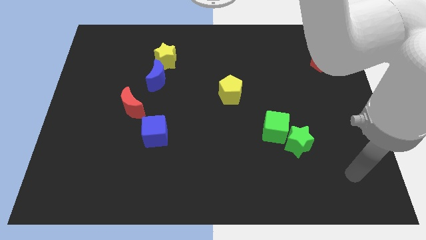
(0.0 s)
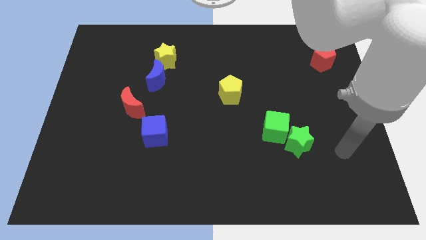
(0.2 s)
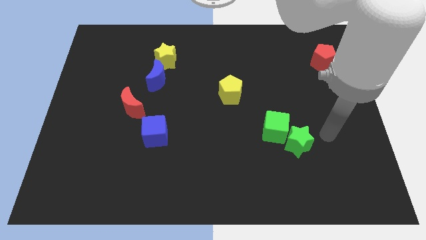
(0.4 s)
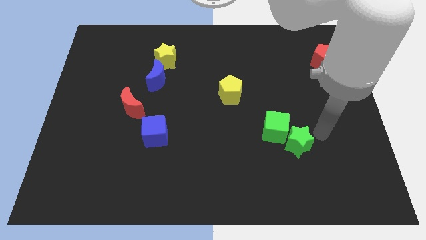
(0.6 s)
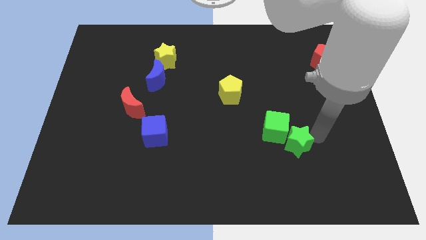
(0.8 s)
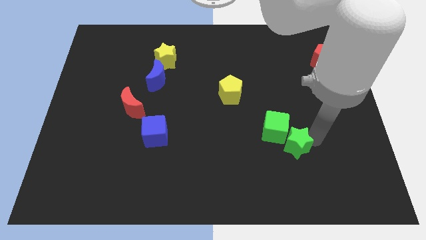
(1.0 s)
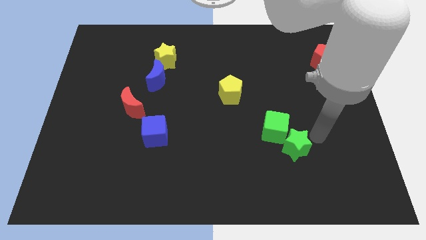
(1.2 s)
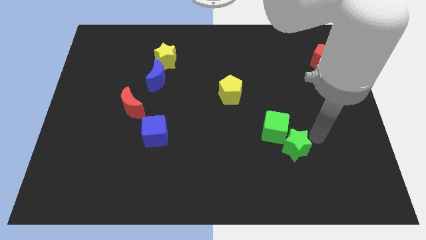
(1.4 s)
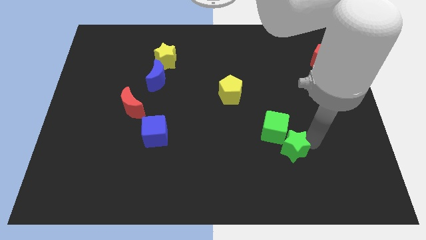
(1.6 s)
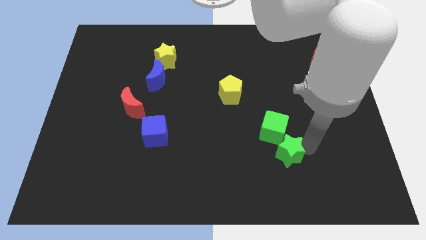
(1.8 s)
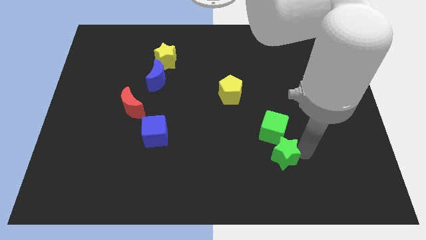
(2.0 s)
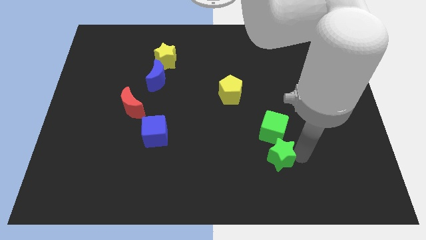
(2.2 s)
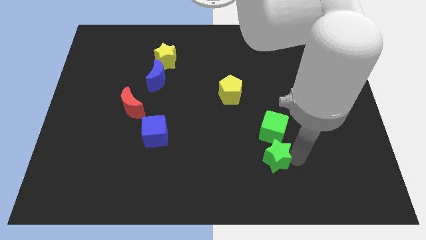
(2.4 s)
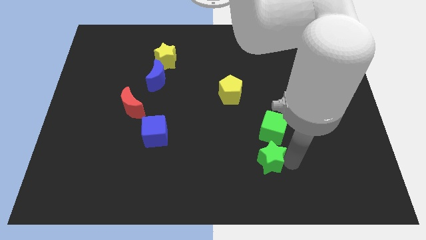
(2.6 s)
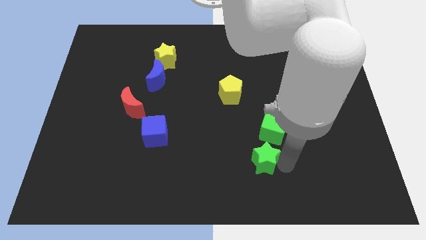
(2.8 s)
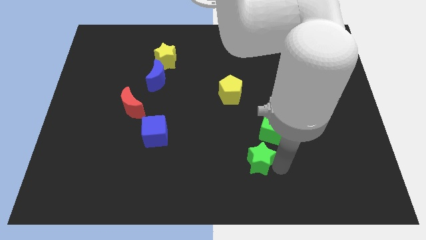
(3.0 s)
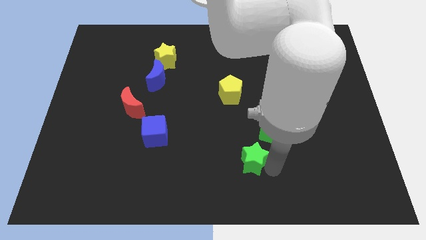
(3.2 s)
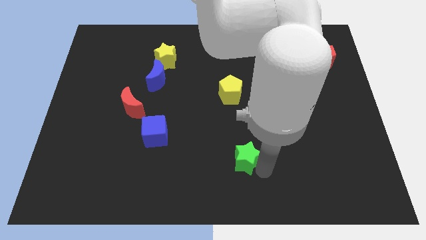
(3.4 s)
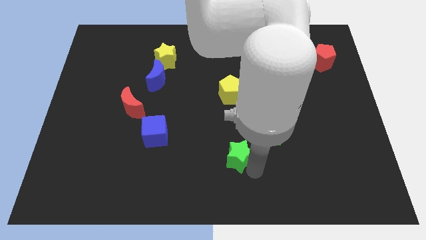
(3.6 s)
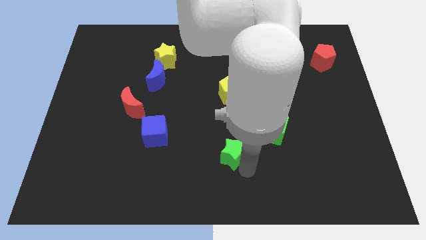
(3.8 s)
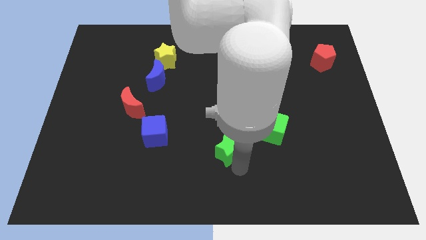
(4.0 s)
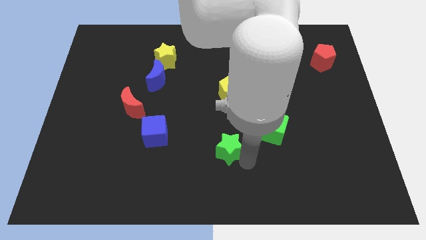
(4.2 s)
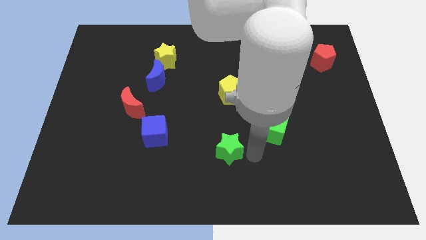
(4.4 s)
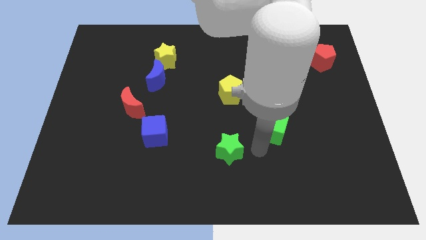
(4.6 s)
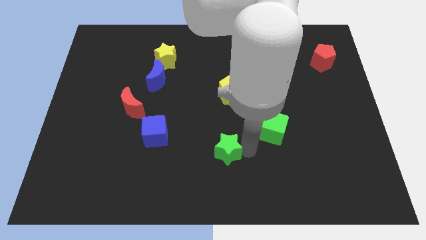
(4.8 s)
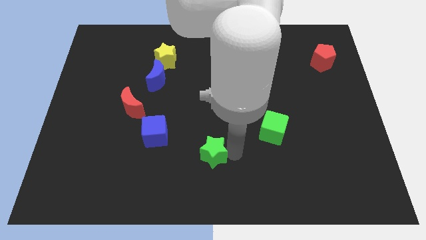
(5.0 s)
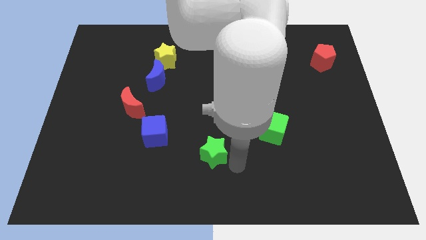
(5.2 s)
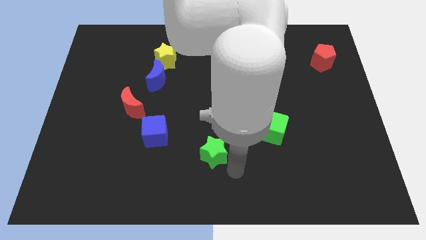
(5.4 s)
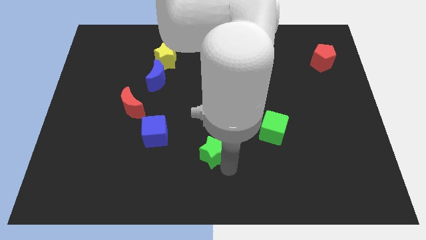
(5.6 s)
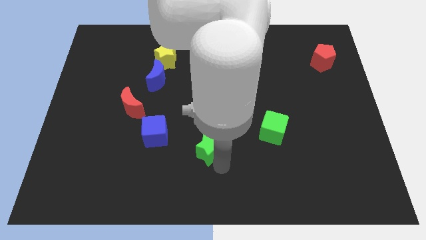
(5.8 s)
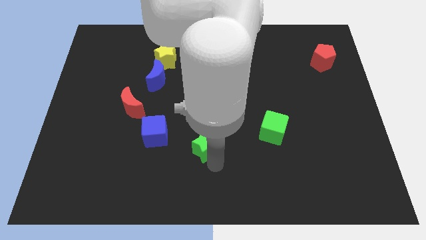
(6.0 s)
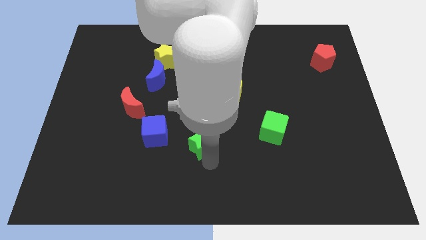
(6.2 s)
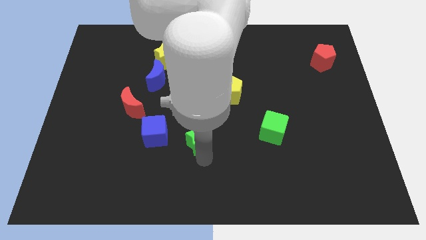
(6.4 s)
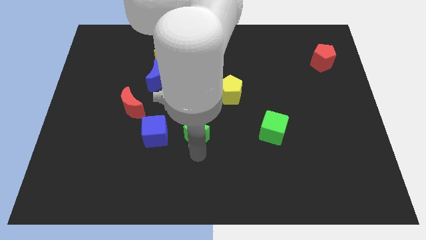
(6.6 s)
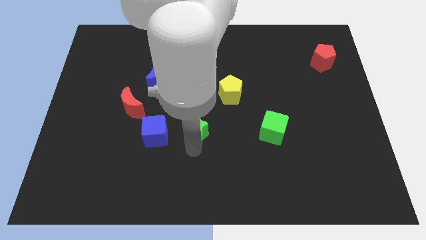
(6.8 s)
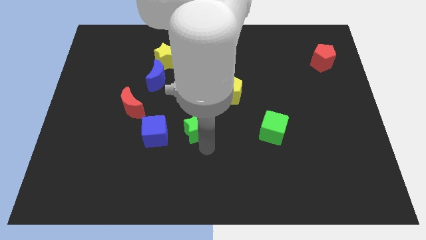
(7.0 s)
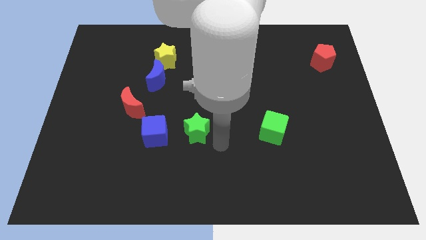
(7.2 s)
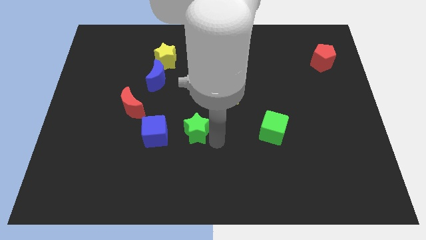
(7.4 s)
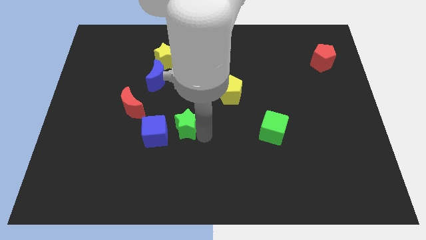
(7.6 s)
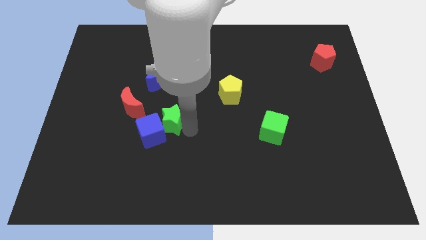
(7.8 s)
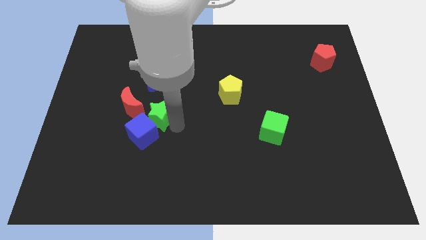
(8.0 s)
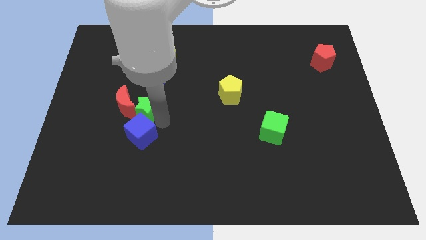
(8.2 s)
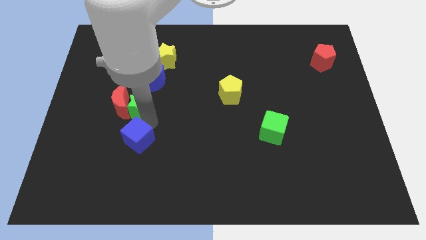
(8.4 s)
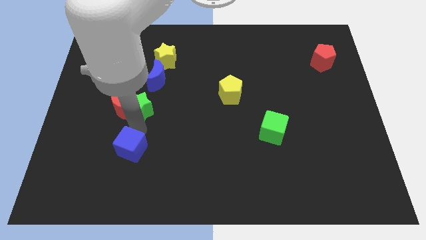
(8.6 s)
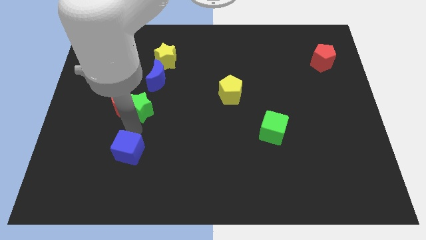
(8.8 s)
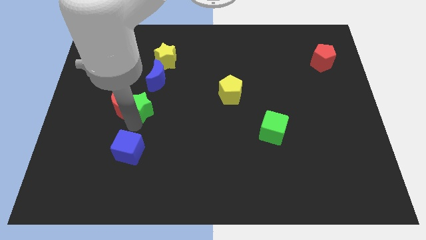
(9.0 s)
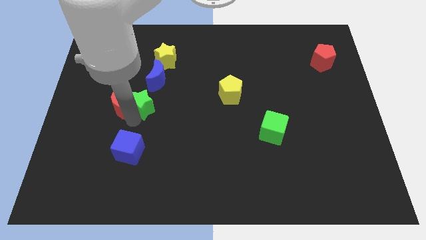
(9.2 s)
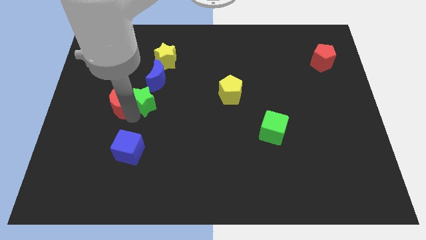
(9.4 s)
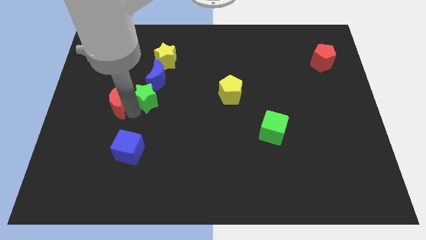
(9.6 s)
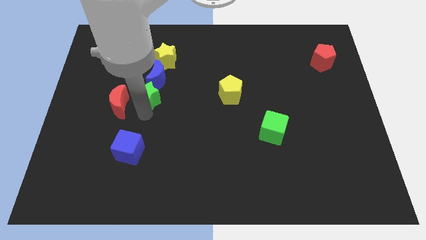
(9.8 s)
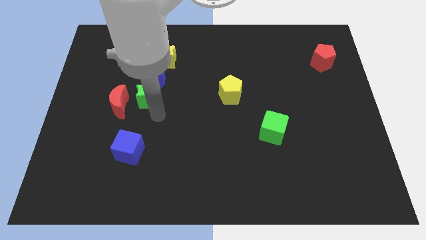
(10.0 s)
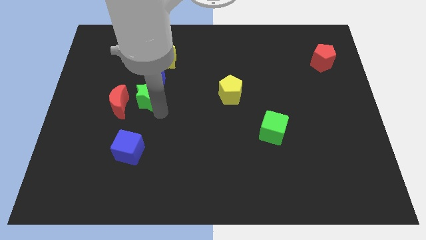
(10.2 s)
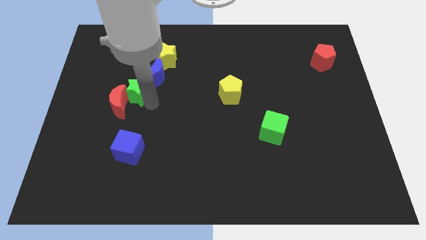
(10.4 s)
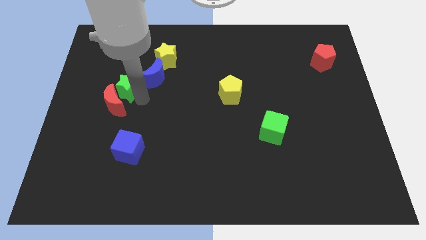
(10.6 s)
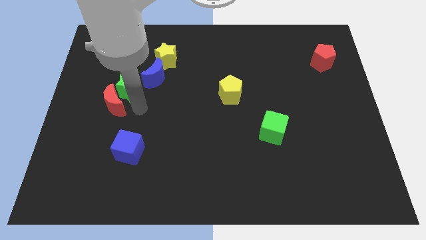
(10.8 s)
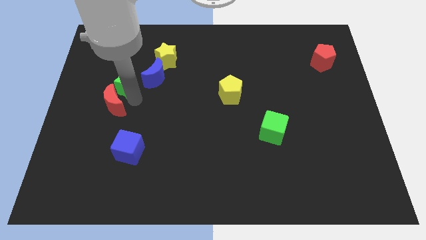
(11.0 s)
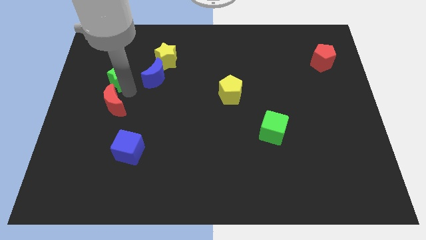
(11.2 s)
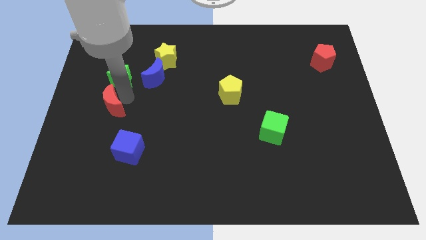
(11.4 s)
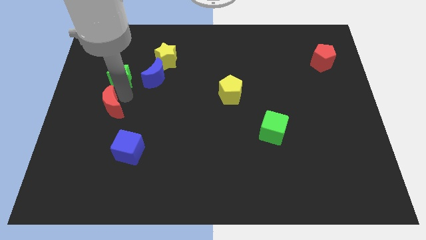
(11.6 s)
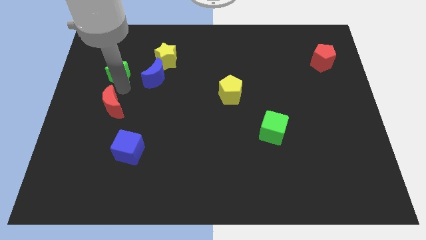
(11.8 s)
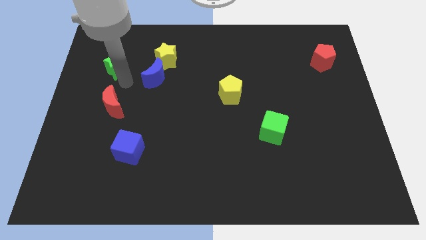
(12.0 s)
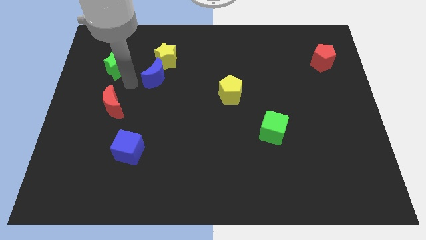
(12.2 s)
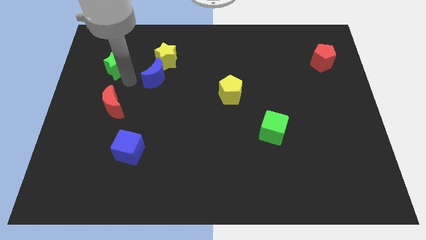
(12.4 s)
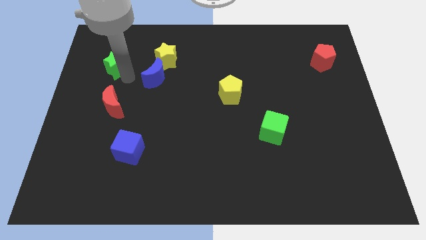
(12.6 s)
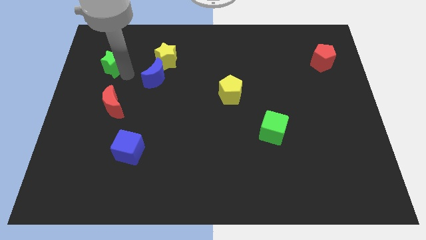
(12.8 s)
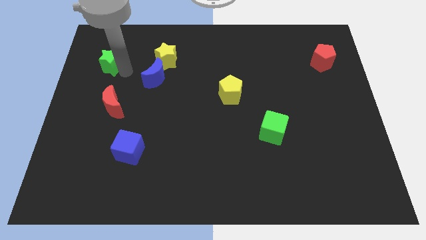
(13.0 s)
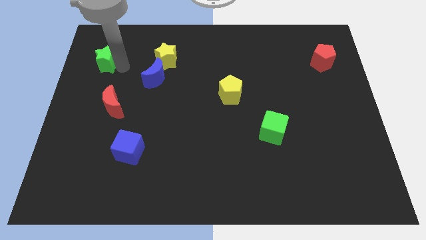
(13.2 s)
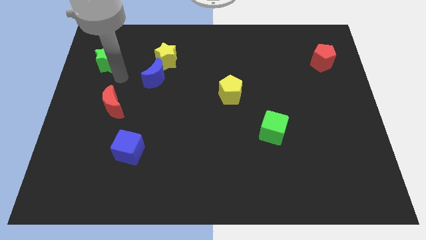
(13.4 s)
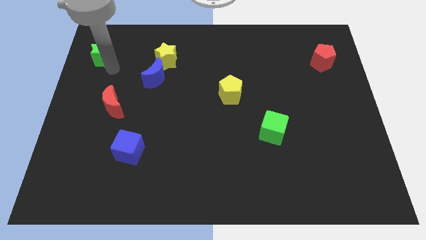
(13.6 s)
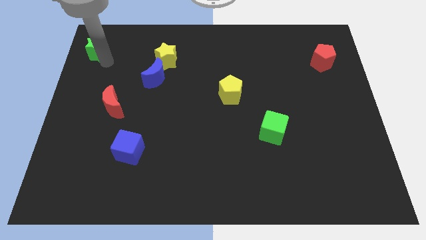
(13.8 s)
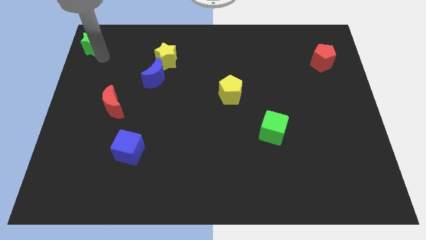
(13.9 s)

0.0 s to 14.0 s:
move the green star to the top left of the board

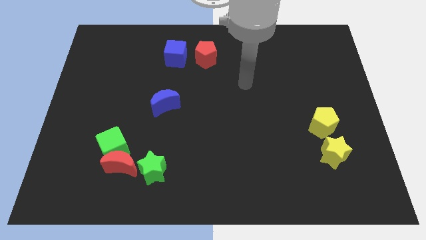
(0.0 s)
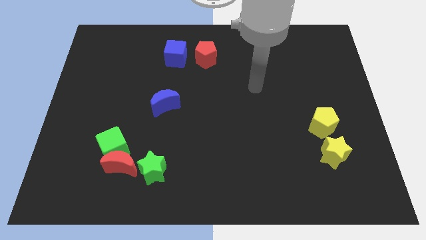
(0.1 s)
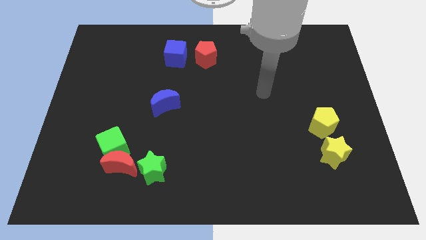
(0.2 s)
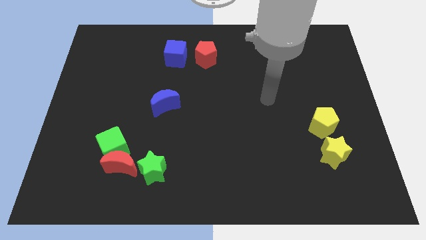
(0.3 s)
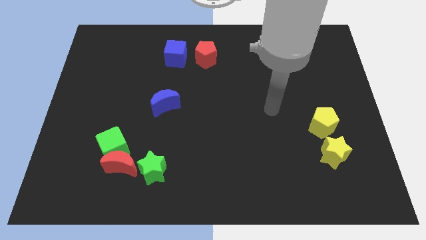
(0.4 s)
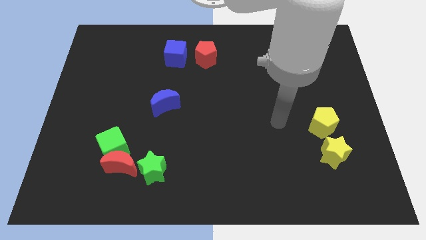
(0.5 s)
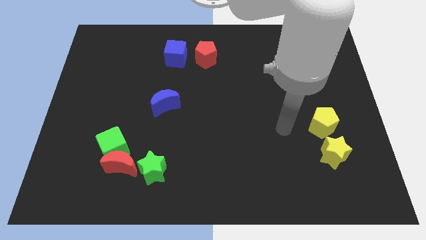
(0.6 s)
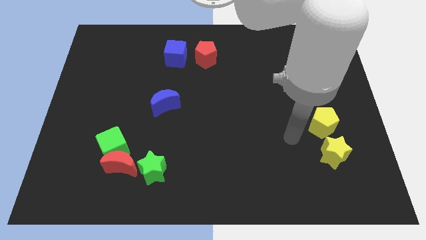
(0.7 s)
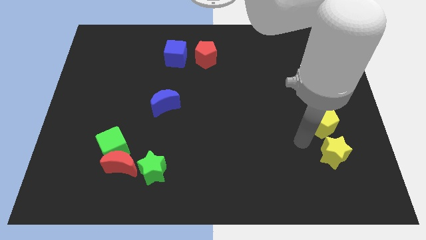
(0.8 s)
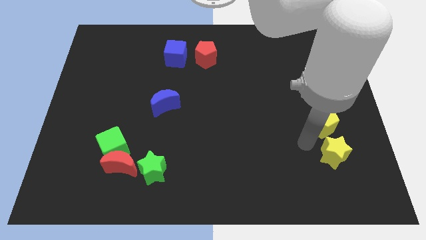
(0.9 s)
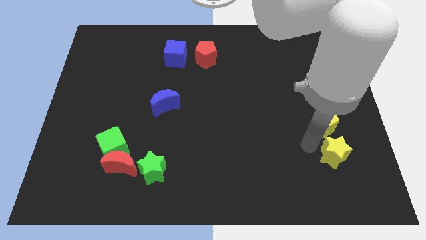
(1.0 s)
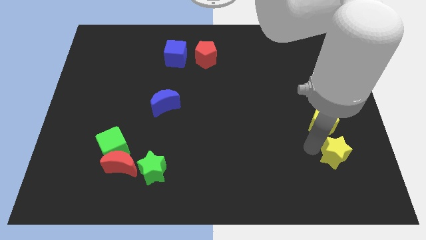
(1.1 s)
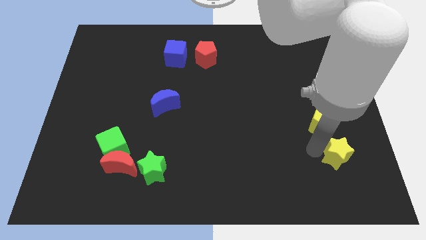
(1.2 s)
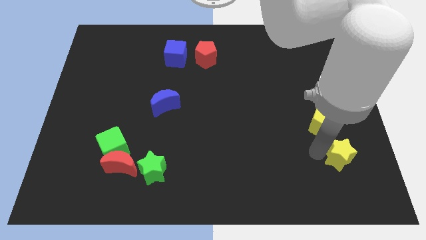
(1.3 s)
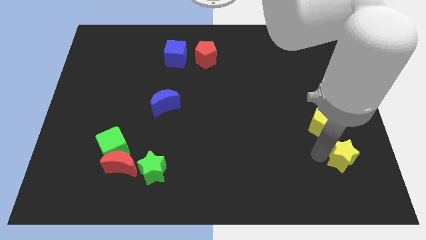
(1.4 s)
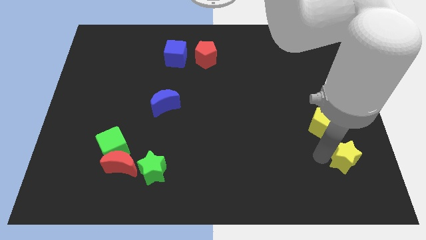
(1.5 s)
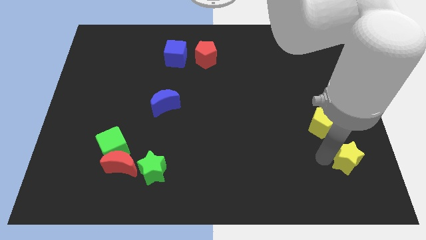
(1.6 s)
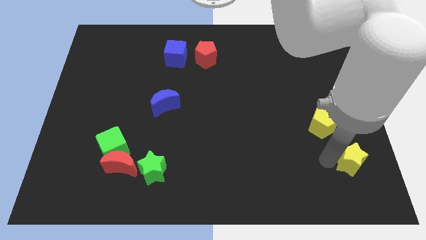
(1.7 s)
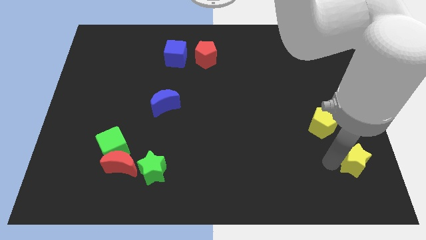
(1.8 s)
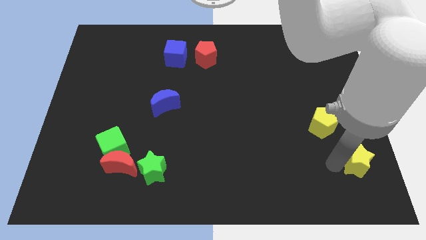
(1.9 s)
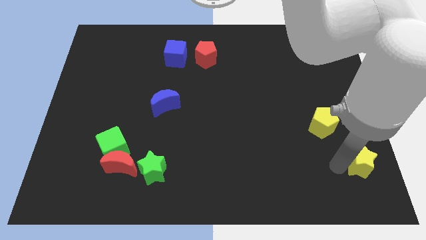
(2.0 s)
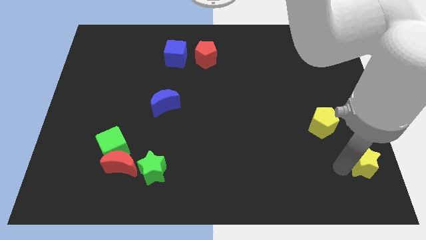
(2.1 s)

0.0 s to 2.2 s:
push the yellow star to the bottom right corner
